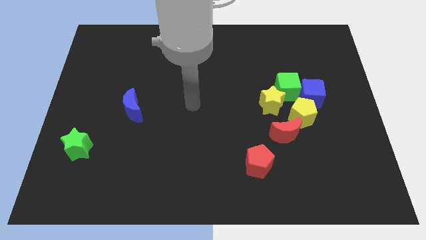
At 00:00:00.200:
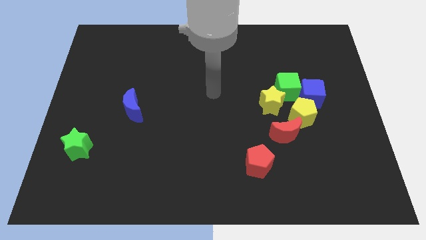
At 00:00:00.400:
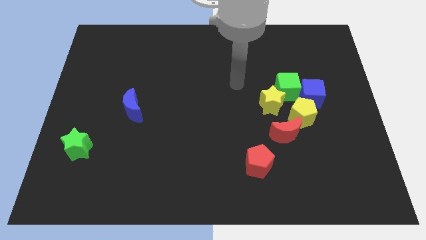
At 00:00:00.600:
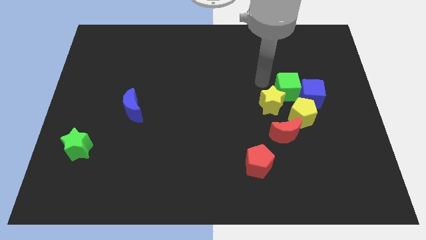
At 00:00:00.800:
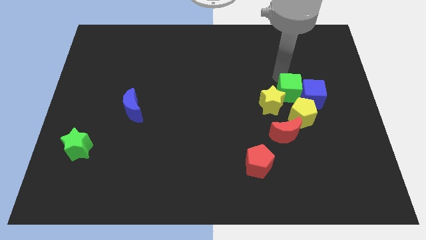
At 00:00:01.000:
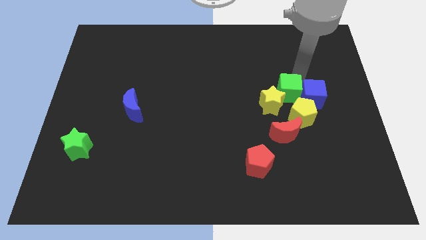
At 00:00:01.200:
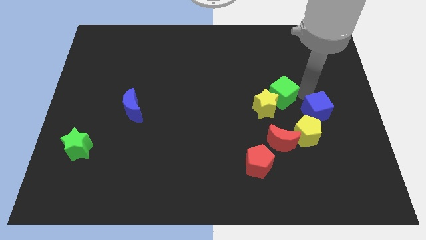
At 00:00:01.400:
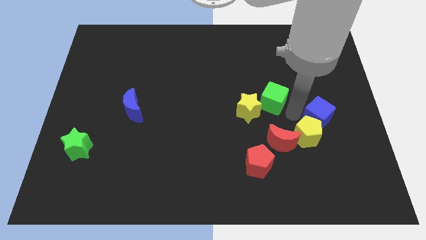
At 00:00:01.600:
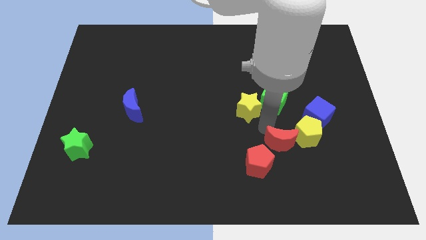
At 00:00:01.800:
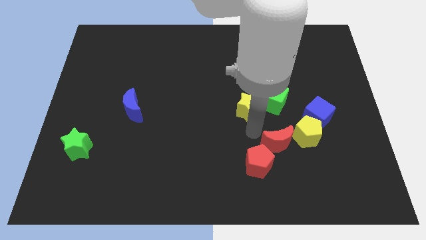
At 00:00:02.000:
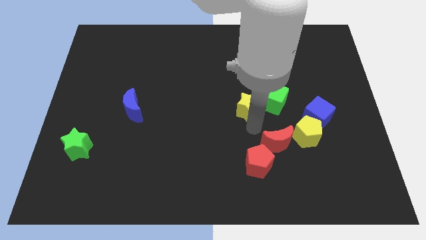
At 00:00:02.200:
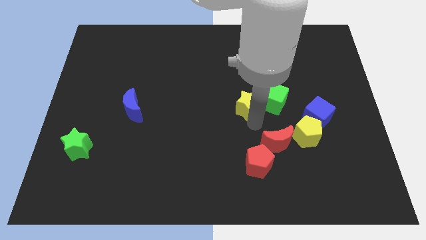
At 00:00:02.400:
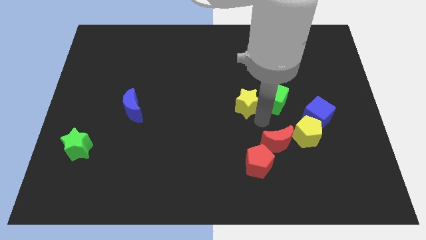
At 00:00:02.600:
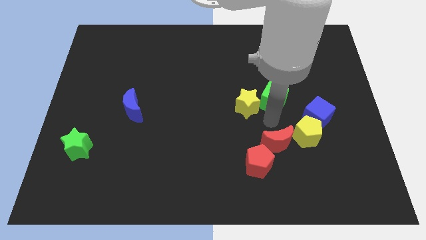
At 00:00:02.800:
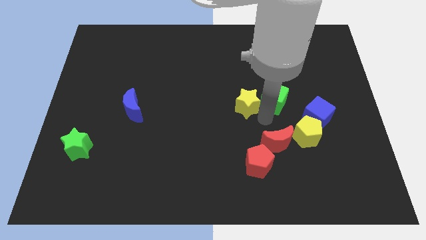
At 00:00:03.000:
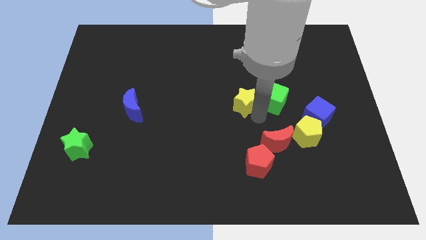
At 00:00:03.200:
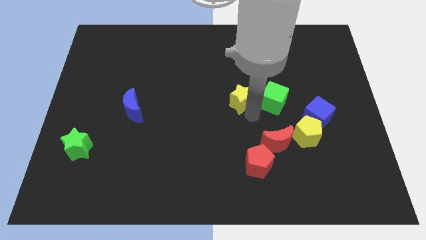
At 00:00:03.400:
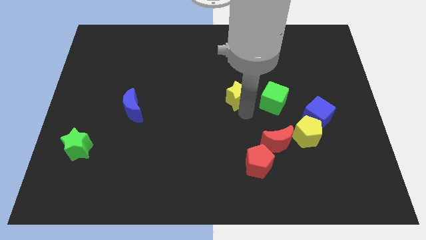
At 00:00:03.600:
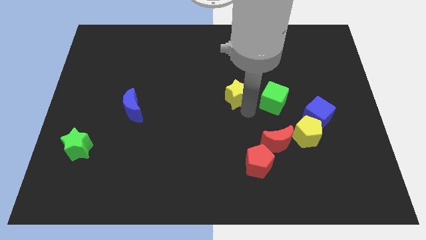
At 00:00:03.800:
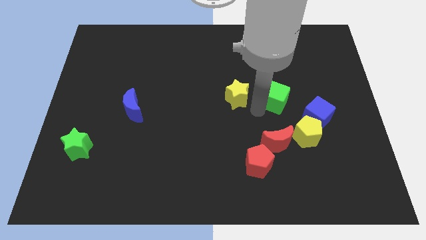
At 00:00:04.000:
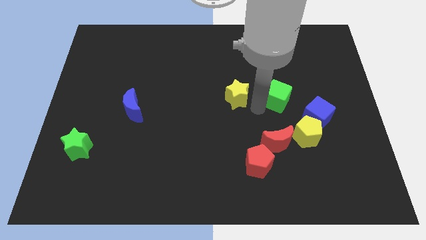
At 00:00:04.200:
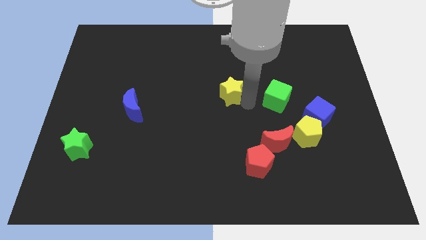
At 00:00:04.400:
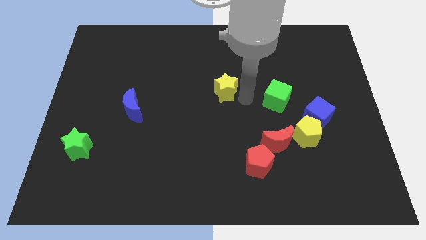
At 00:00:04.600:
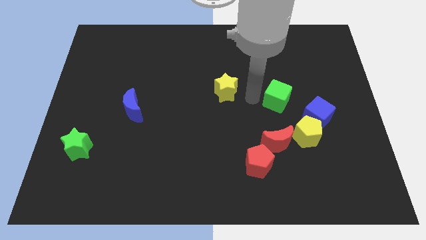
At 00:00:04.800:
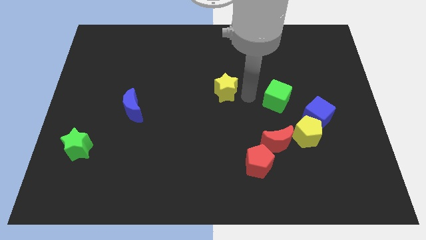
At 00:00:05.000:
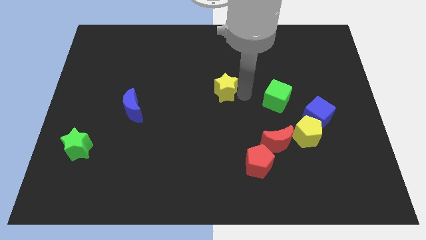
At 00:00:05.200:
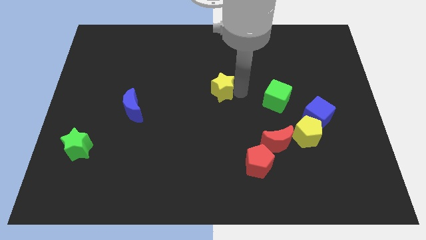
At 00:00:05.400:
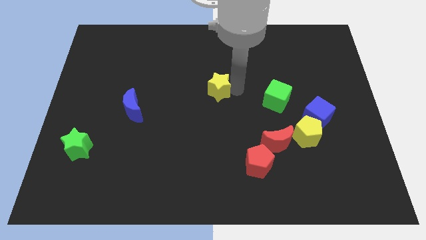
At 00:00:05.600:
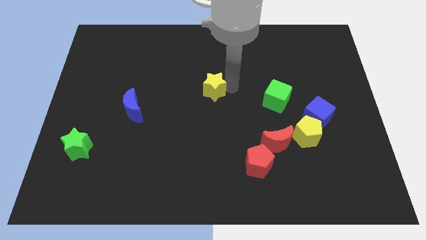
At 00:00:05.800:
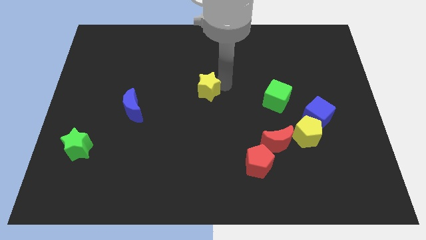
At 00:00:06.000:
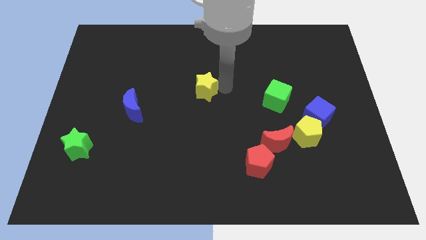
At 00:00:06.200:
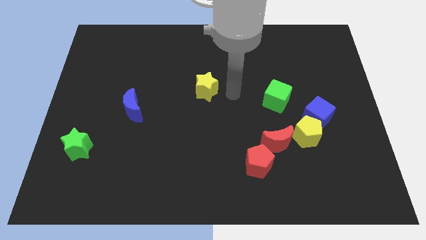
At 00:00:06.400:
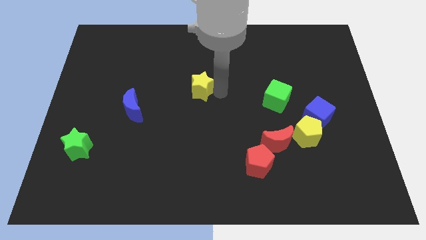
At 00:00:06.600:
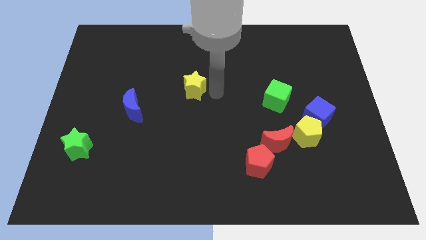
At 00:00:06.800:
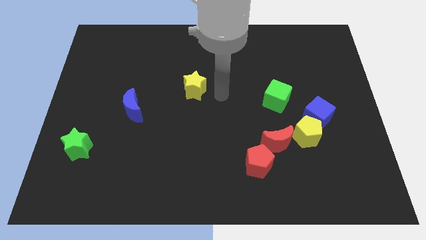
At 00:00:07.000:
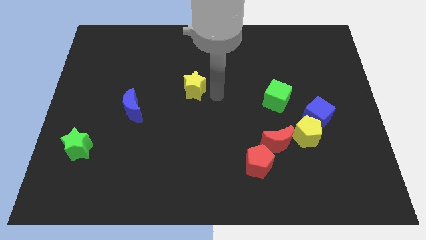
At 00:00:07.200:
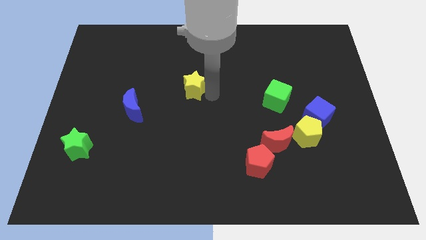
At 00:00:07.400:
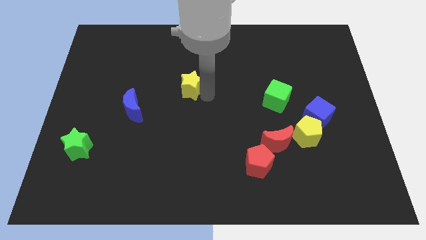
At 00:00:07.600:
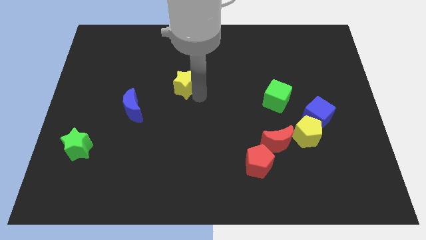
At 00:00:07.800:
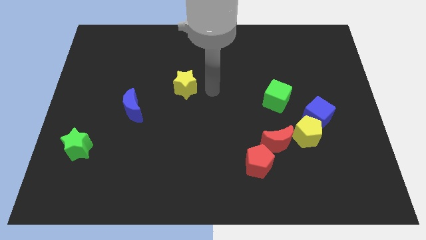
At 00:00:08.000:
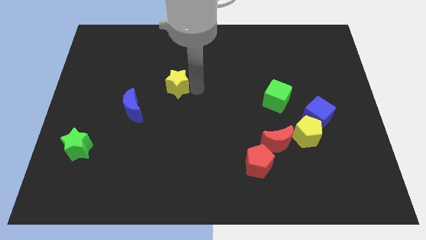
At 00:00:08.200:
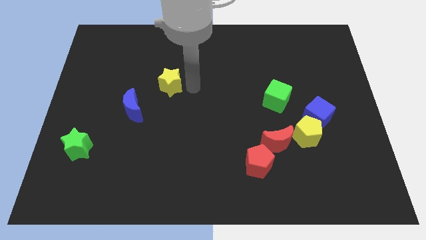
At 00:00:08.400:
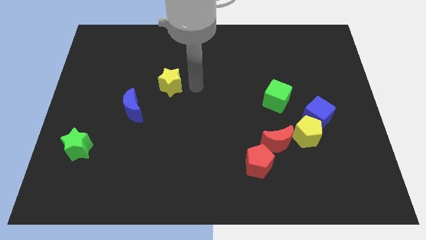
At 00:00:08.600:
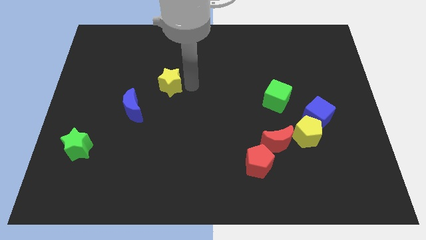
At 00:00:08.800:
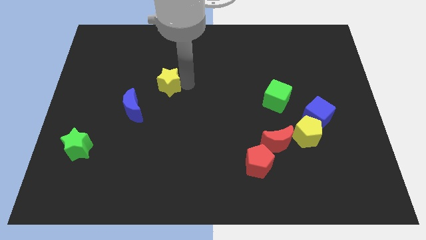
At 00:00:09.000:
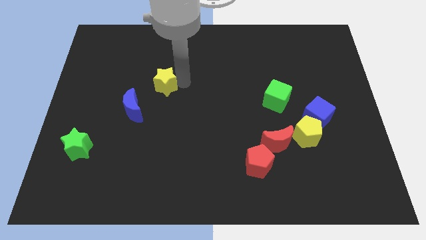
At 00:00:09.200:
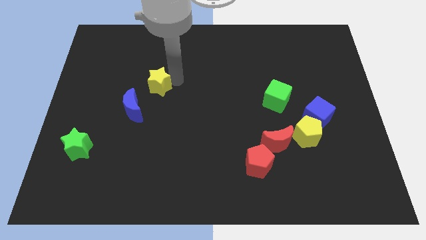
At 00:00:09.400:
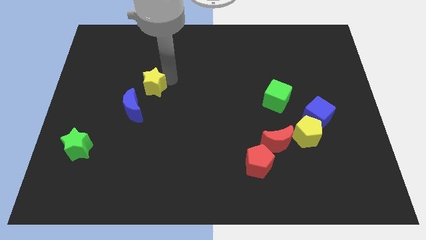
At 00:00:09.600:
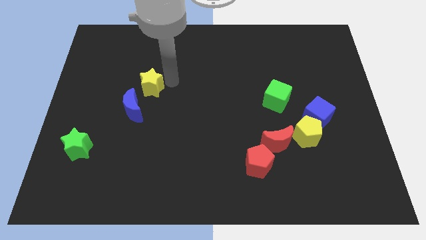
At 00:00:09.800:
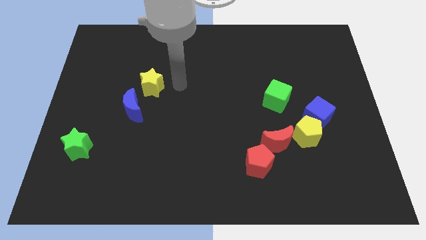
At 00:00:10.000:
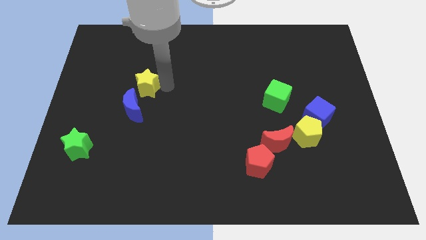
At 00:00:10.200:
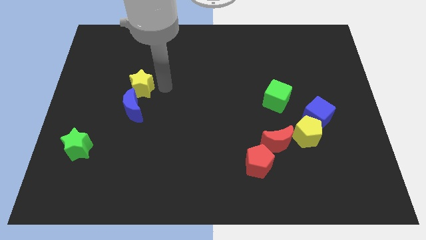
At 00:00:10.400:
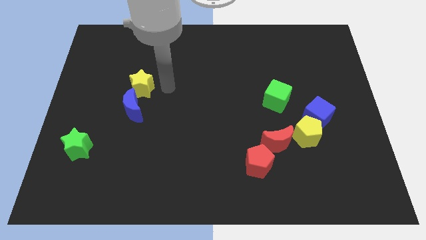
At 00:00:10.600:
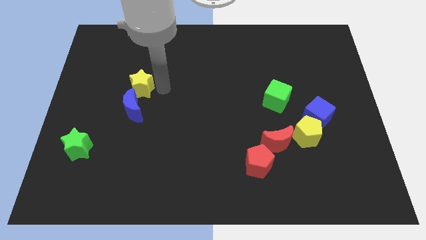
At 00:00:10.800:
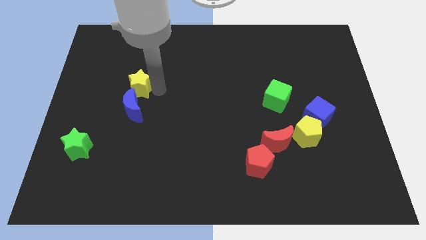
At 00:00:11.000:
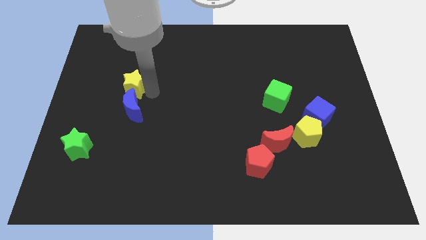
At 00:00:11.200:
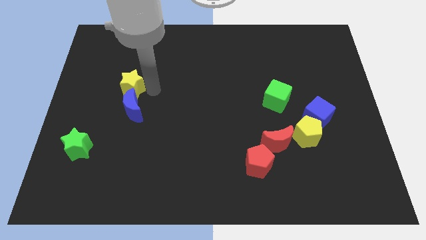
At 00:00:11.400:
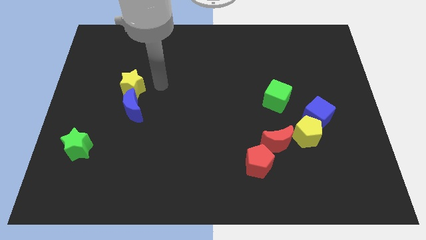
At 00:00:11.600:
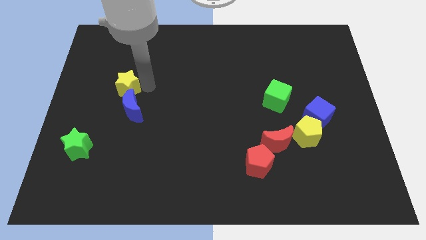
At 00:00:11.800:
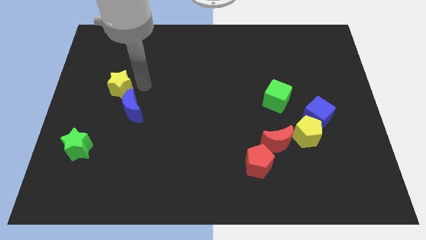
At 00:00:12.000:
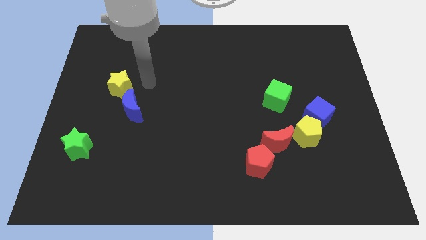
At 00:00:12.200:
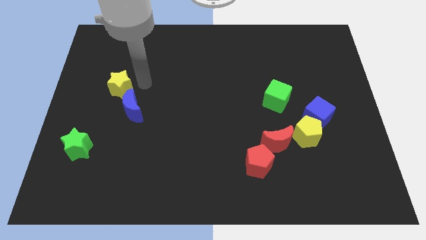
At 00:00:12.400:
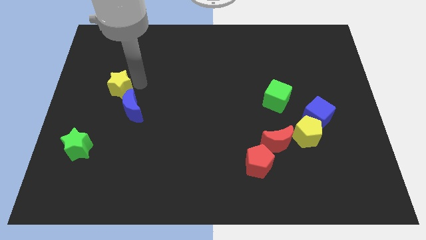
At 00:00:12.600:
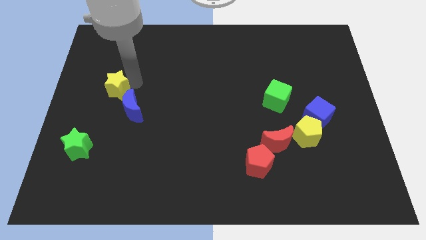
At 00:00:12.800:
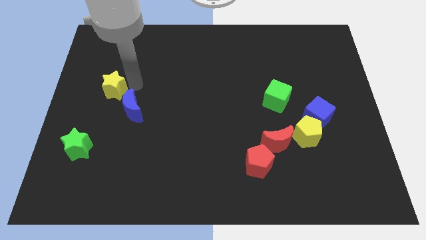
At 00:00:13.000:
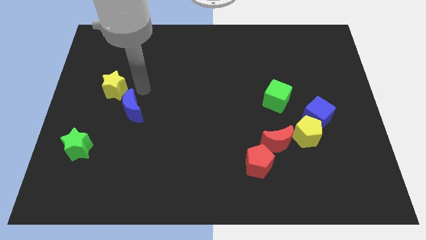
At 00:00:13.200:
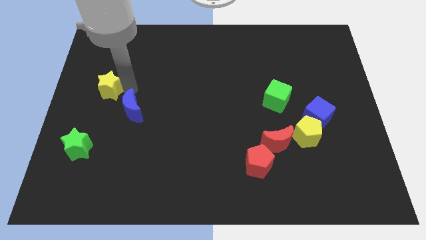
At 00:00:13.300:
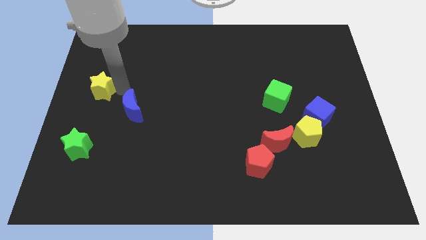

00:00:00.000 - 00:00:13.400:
put the yellow star to the left side

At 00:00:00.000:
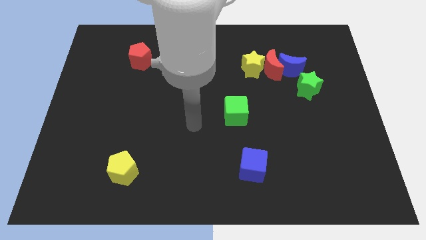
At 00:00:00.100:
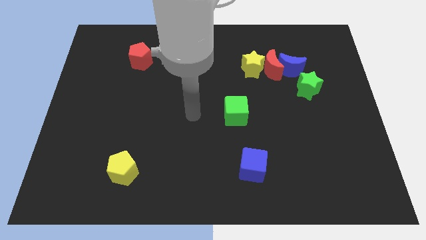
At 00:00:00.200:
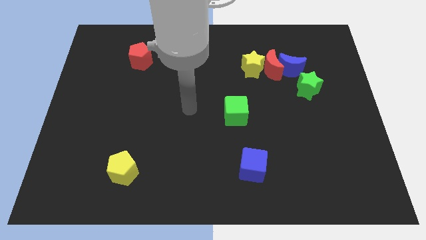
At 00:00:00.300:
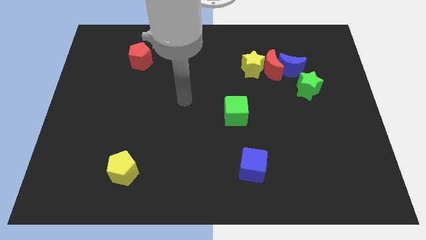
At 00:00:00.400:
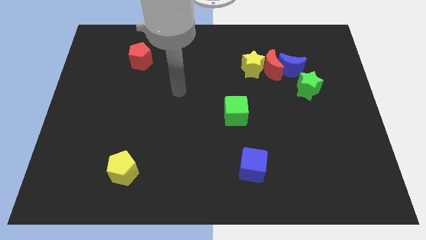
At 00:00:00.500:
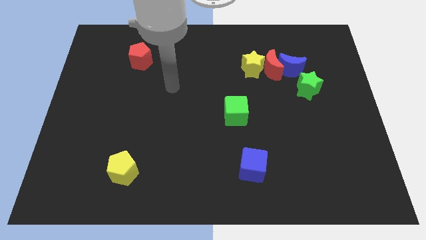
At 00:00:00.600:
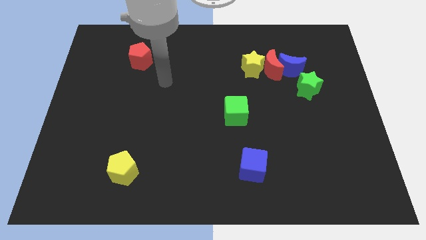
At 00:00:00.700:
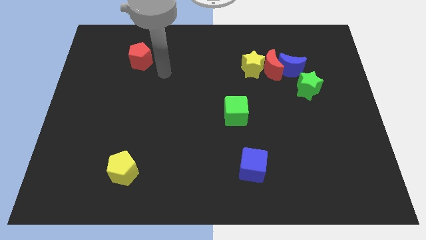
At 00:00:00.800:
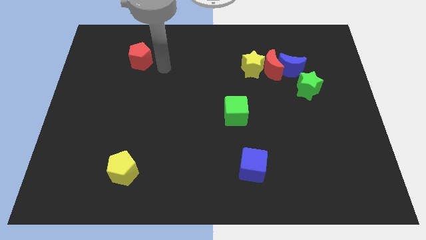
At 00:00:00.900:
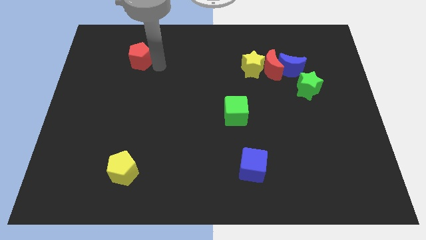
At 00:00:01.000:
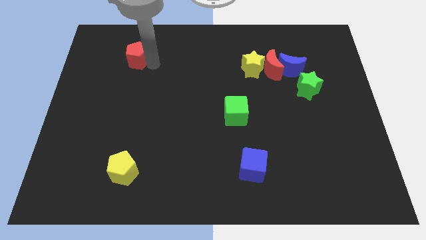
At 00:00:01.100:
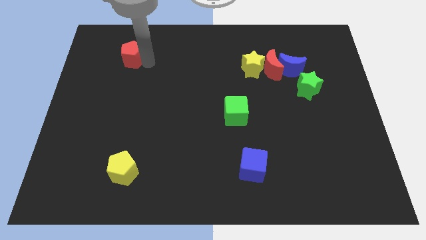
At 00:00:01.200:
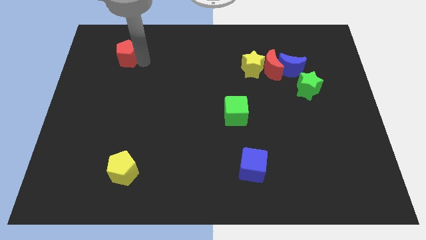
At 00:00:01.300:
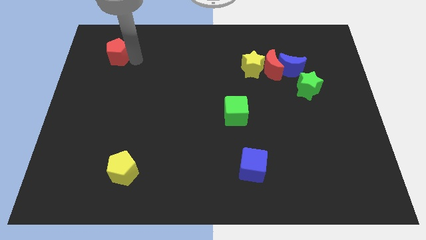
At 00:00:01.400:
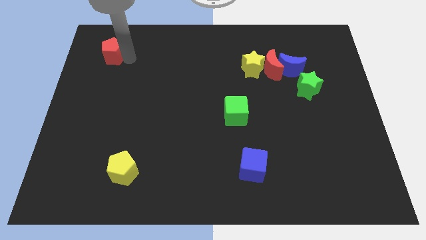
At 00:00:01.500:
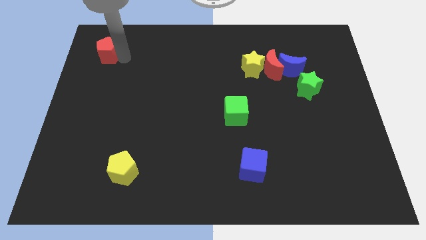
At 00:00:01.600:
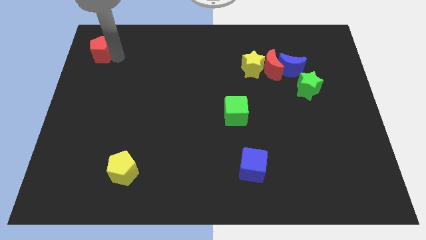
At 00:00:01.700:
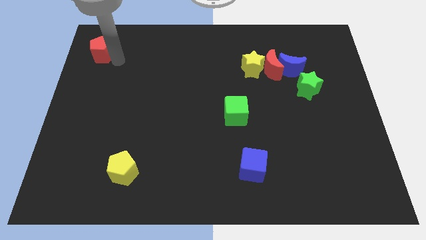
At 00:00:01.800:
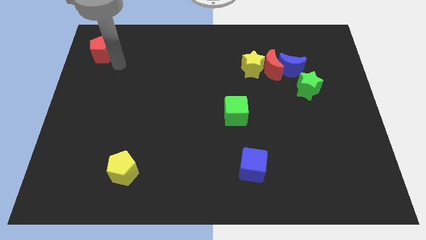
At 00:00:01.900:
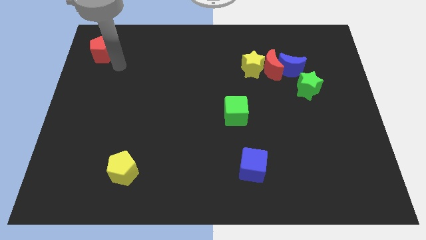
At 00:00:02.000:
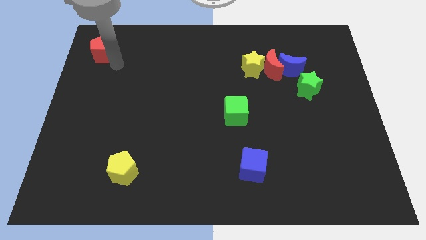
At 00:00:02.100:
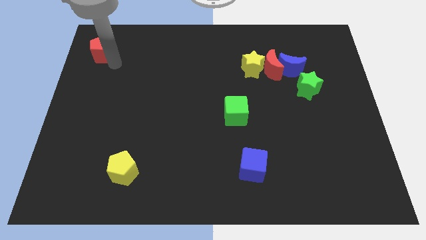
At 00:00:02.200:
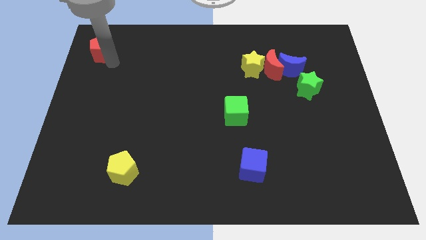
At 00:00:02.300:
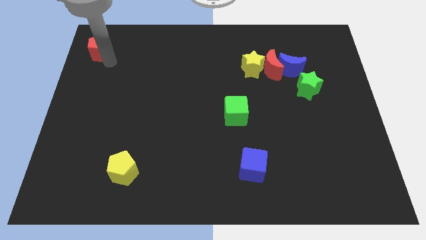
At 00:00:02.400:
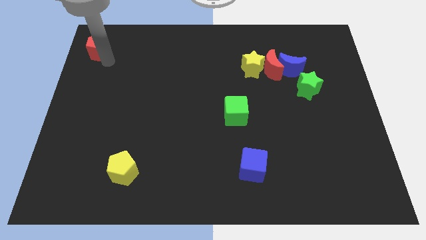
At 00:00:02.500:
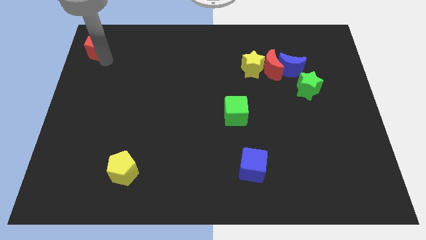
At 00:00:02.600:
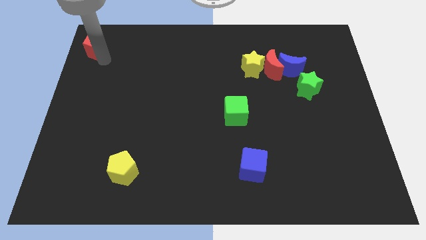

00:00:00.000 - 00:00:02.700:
slide the red pentagon to the upper left corner
